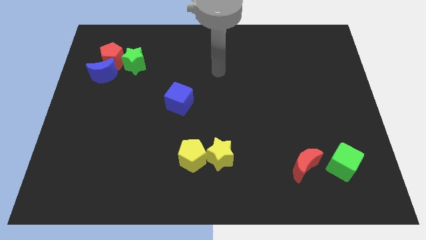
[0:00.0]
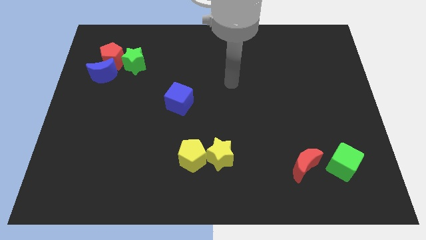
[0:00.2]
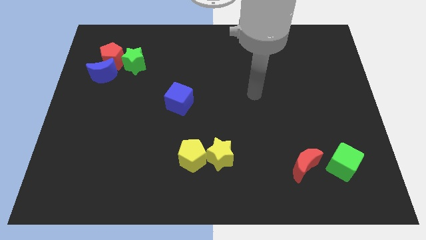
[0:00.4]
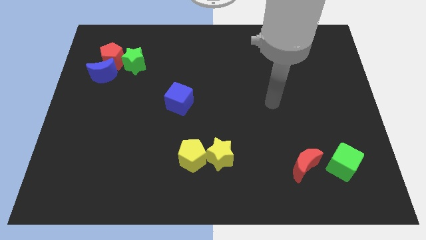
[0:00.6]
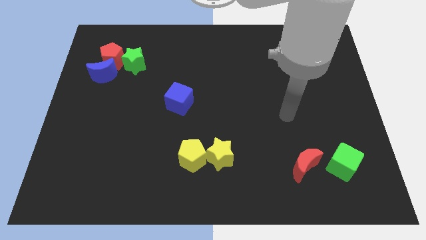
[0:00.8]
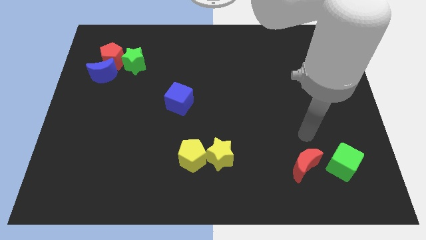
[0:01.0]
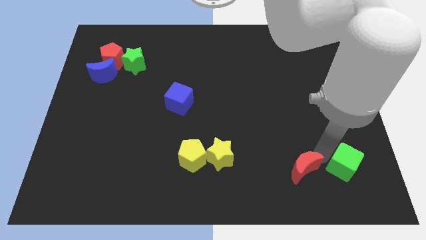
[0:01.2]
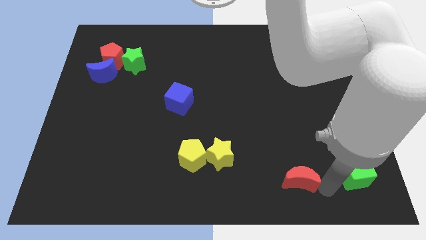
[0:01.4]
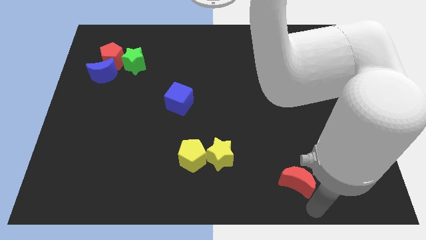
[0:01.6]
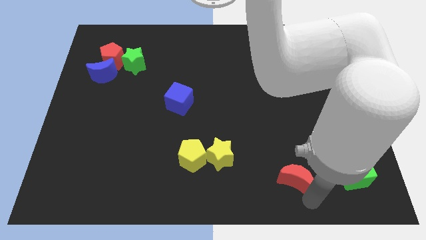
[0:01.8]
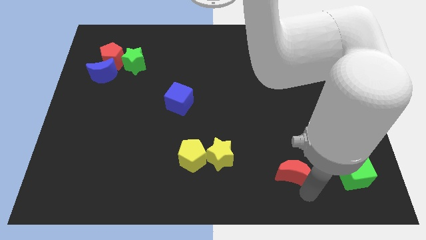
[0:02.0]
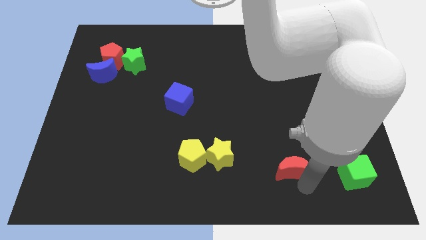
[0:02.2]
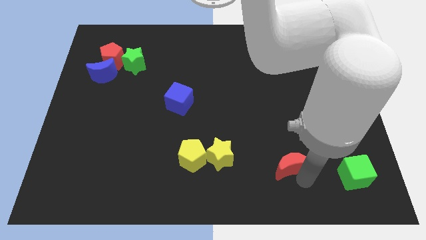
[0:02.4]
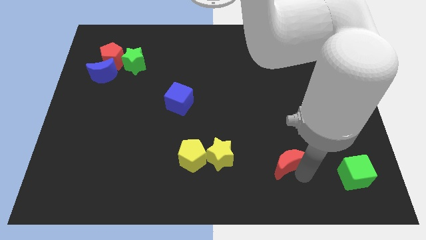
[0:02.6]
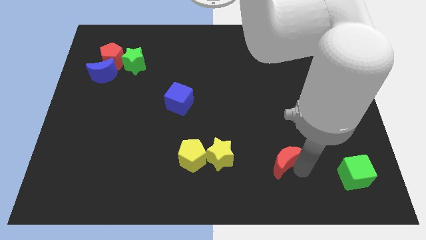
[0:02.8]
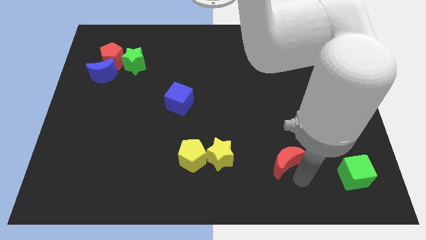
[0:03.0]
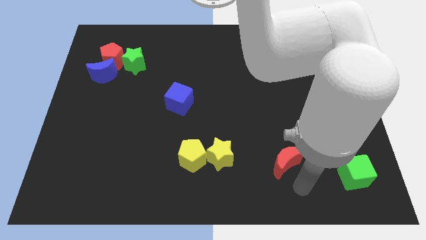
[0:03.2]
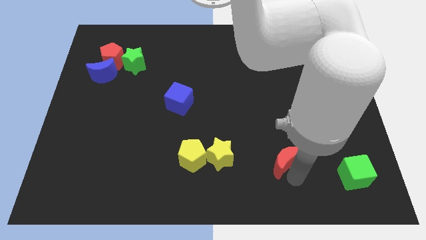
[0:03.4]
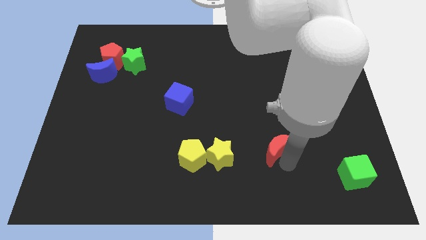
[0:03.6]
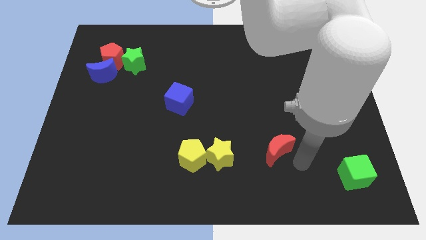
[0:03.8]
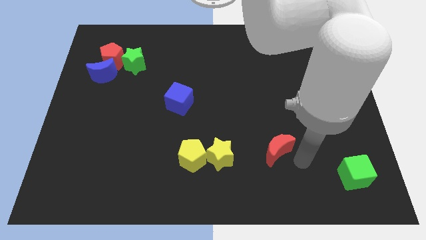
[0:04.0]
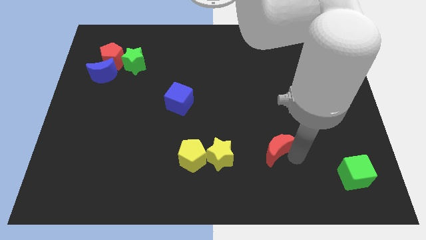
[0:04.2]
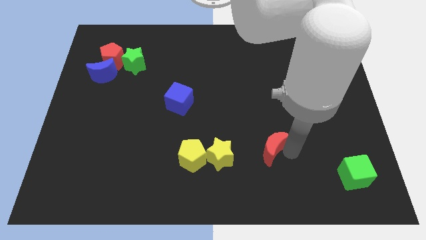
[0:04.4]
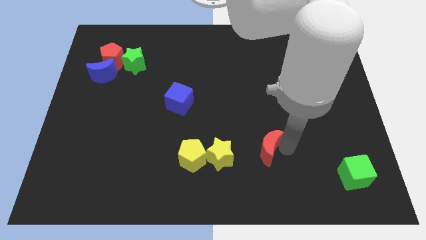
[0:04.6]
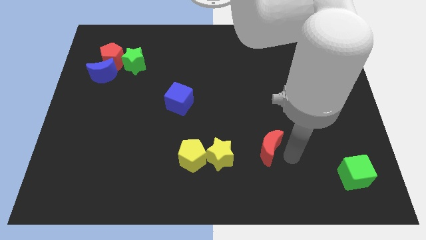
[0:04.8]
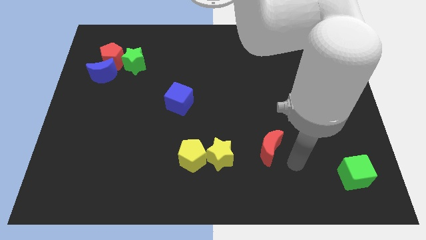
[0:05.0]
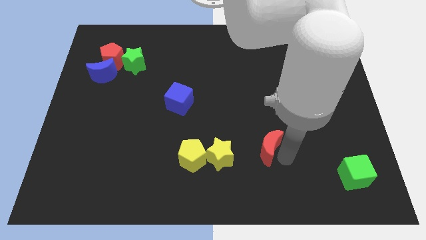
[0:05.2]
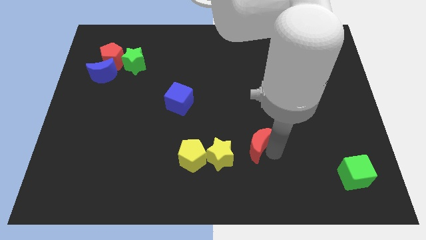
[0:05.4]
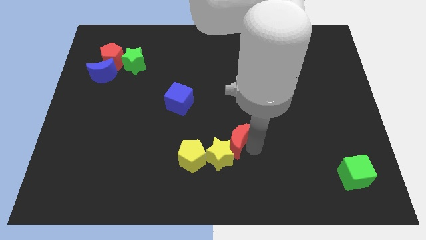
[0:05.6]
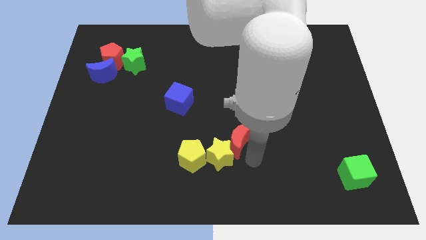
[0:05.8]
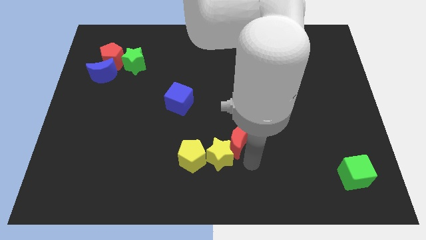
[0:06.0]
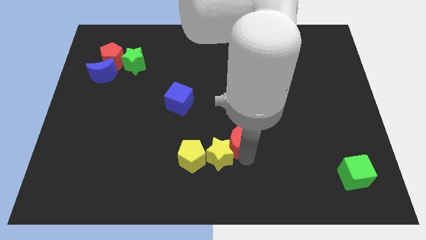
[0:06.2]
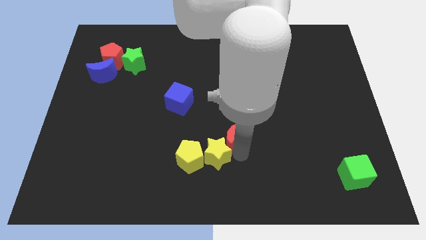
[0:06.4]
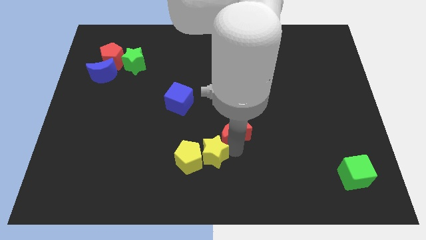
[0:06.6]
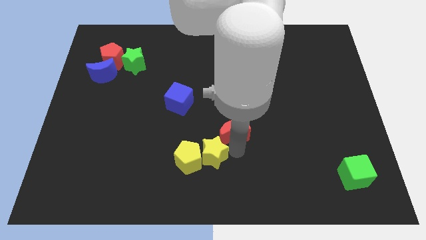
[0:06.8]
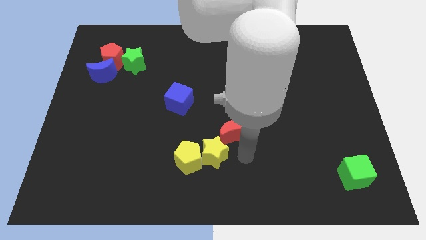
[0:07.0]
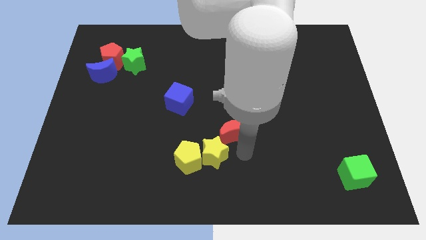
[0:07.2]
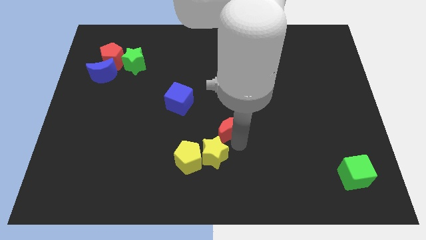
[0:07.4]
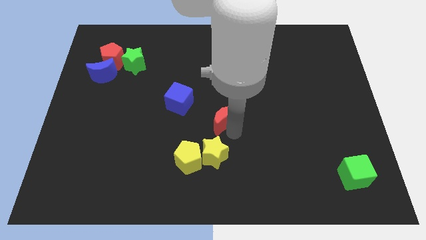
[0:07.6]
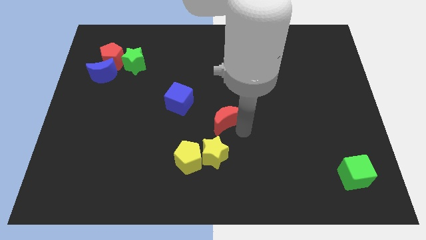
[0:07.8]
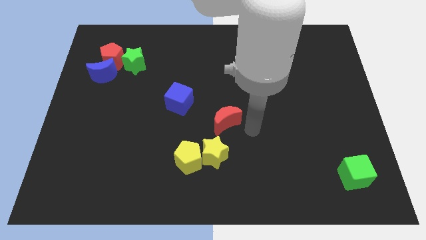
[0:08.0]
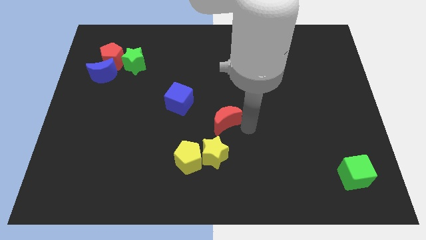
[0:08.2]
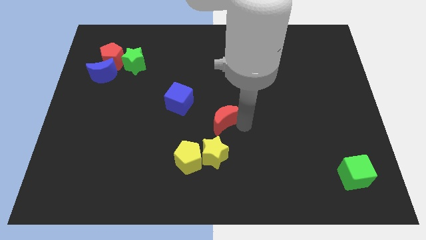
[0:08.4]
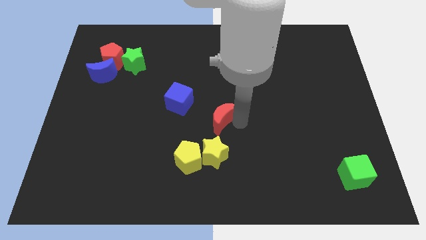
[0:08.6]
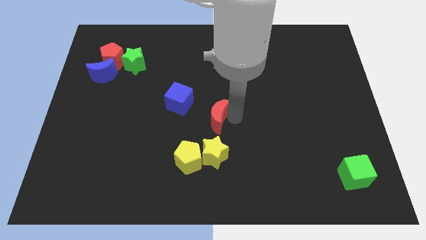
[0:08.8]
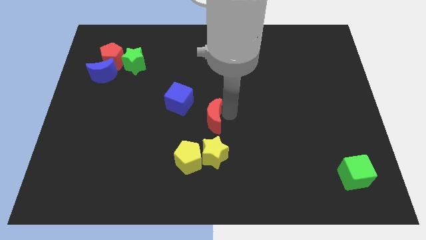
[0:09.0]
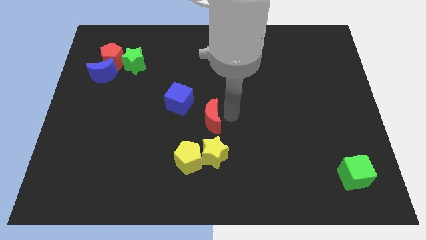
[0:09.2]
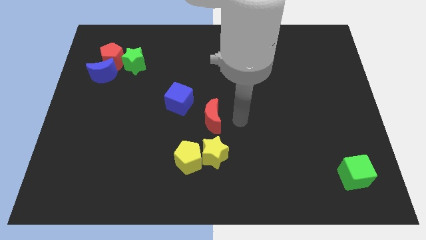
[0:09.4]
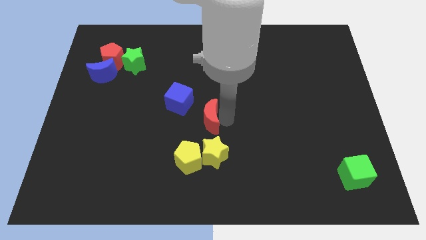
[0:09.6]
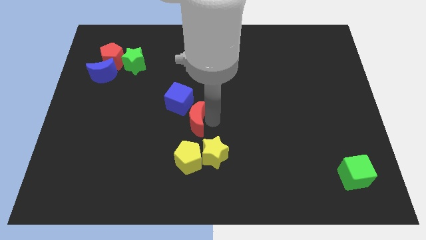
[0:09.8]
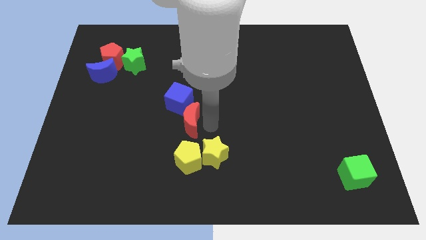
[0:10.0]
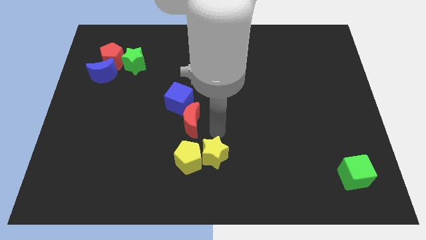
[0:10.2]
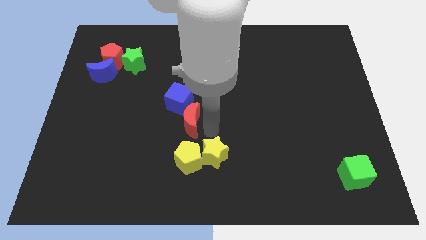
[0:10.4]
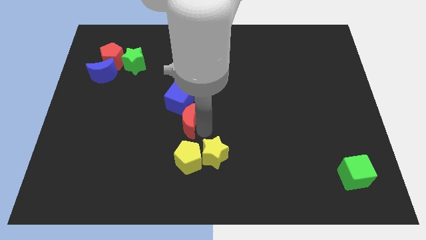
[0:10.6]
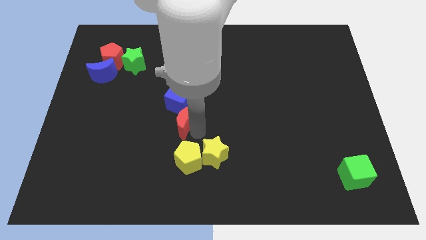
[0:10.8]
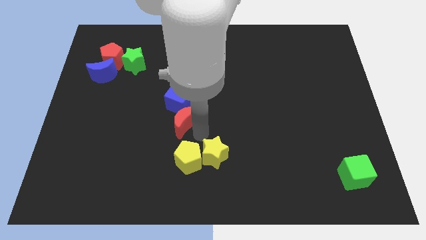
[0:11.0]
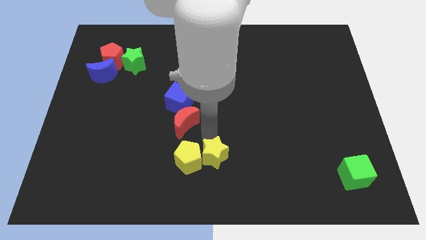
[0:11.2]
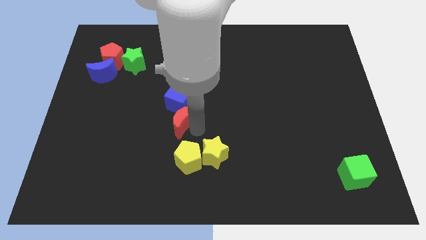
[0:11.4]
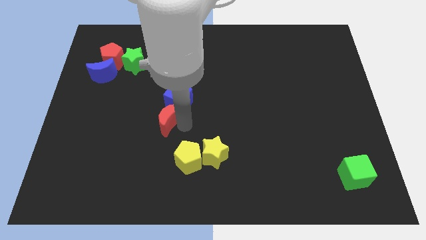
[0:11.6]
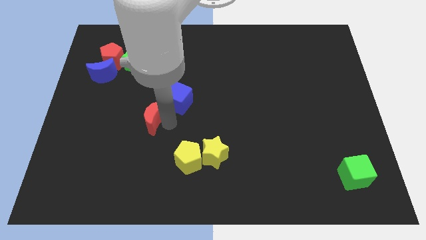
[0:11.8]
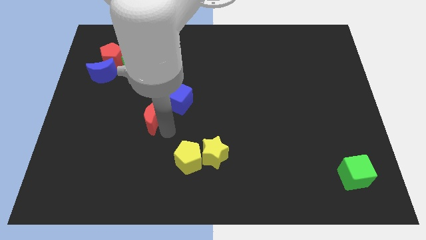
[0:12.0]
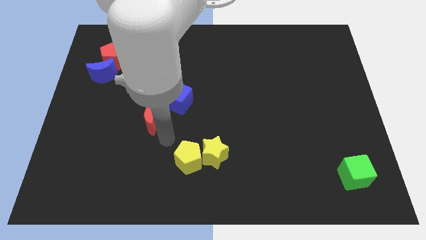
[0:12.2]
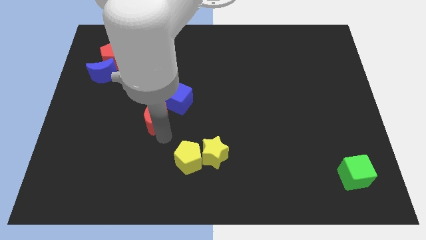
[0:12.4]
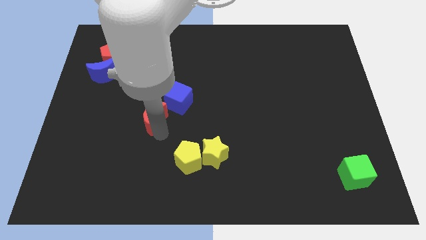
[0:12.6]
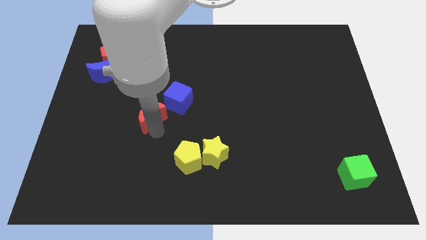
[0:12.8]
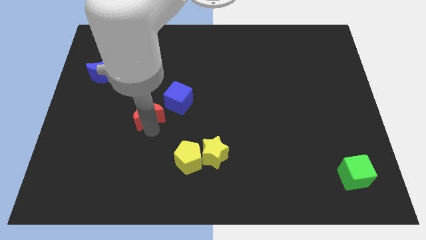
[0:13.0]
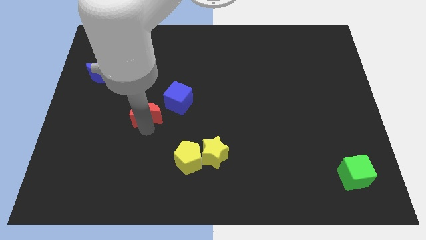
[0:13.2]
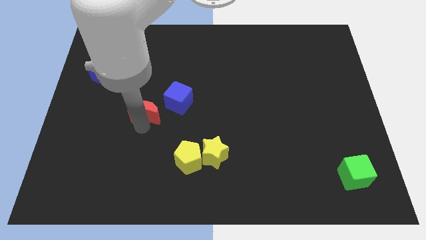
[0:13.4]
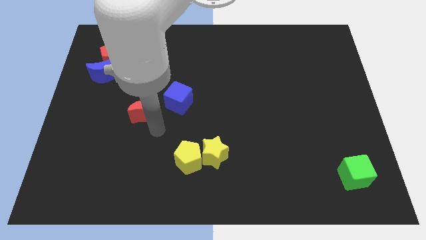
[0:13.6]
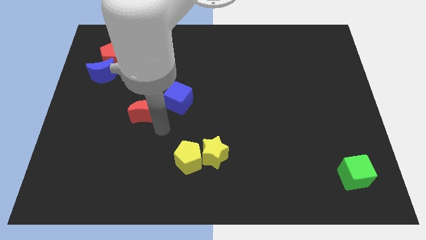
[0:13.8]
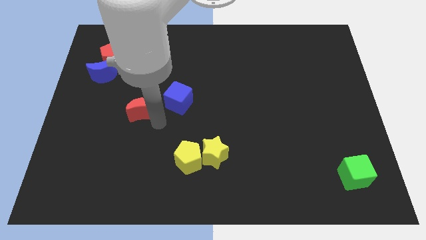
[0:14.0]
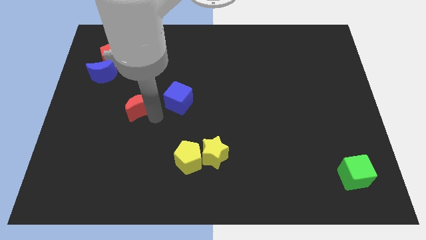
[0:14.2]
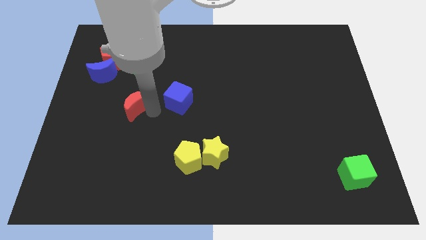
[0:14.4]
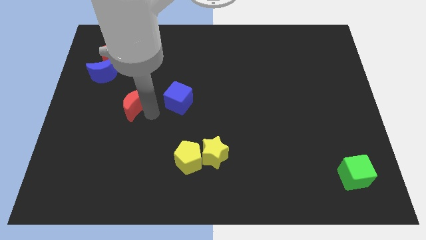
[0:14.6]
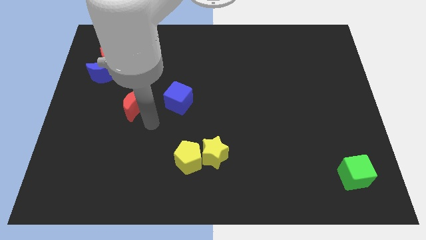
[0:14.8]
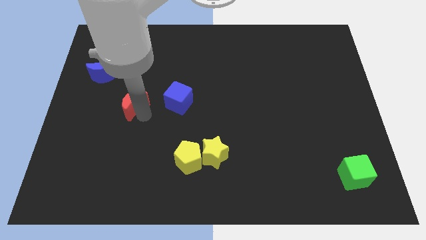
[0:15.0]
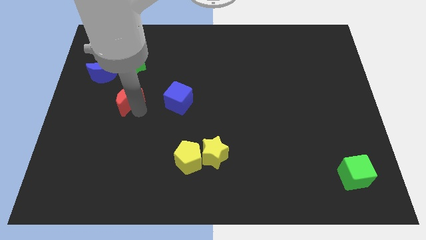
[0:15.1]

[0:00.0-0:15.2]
slide the red moon to the bottom right of the blue moon

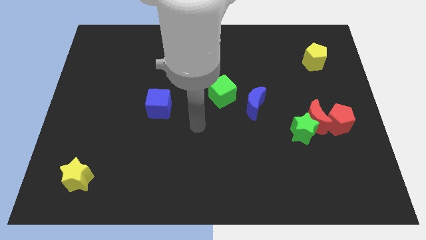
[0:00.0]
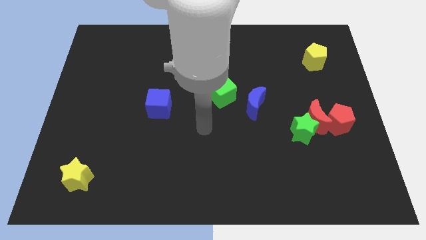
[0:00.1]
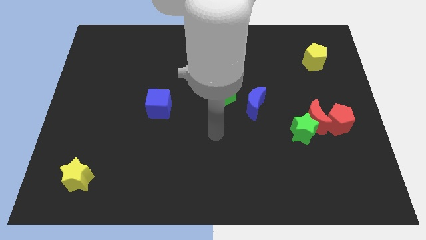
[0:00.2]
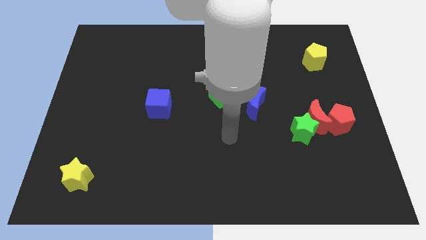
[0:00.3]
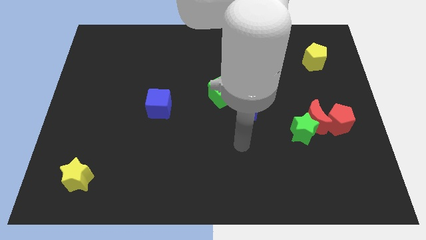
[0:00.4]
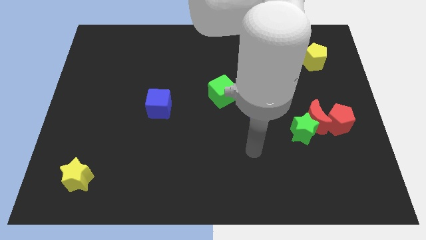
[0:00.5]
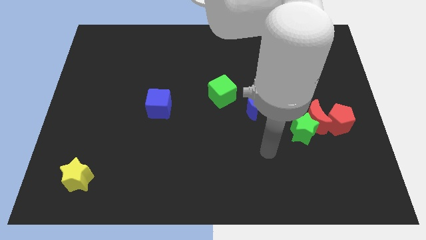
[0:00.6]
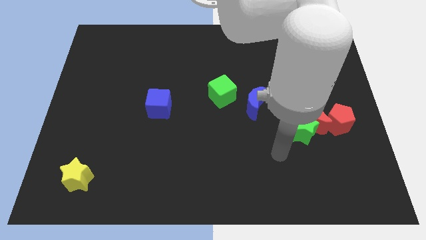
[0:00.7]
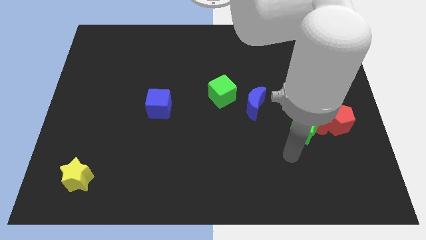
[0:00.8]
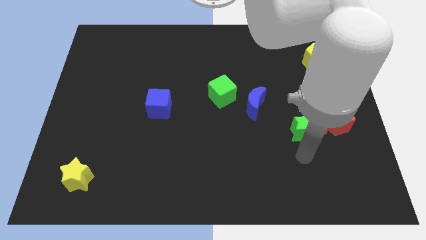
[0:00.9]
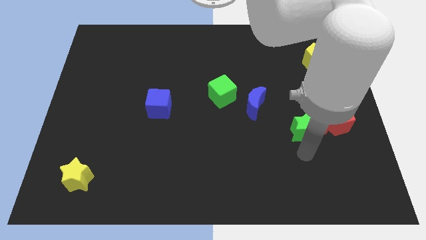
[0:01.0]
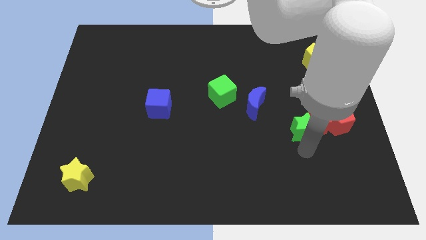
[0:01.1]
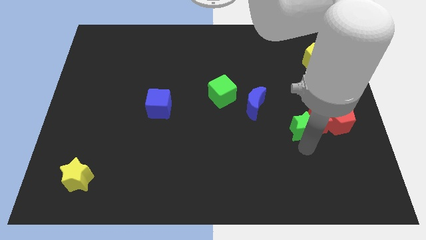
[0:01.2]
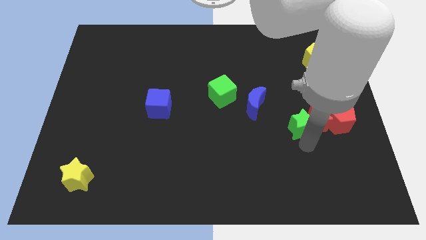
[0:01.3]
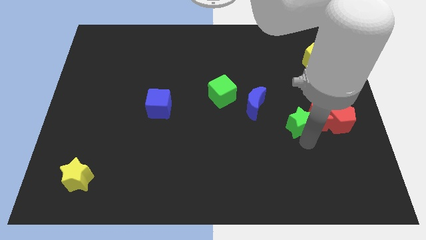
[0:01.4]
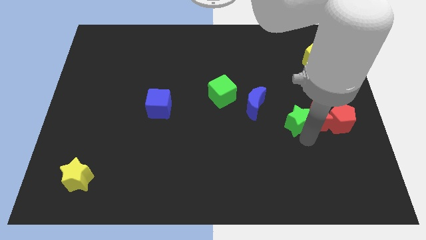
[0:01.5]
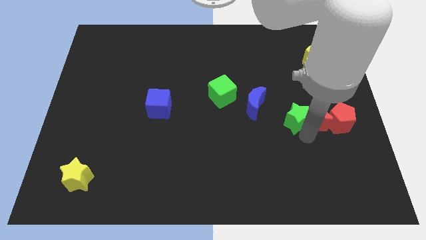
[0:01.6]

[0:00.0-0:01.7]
put the green star to the right side of the blue moon
